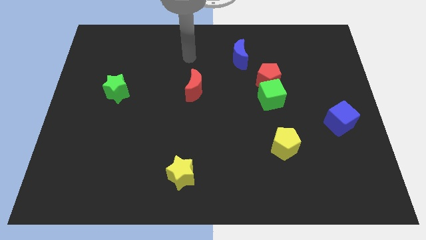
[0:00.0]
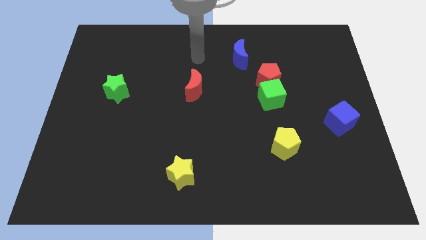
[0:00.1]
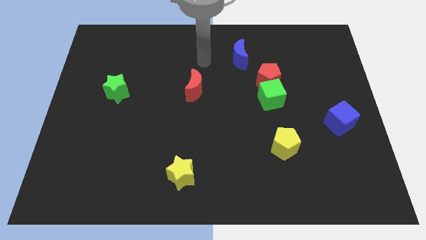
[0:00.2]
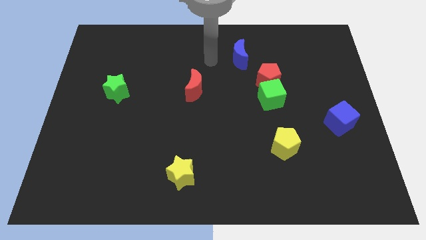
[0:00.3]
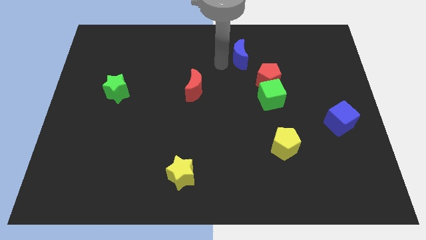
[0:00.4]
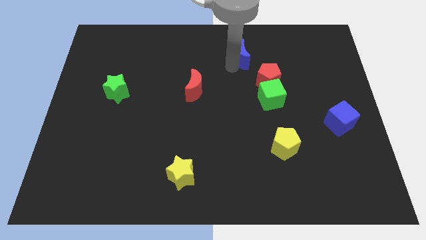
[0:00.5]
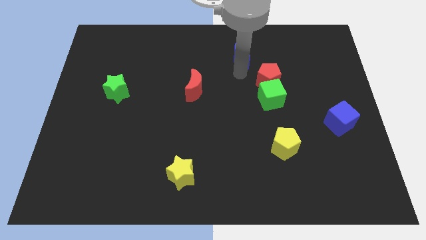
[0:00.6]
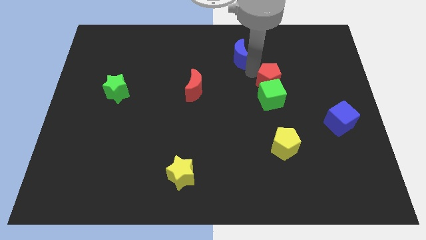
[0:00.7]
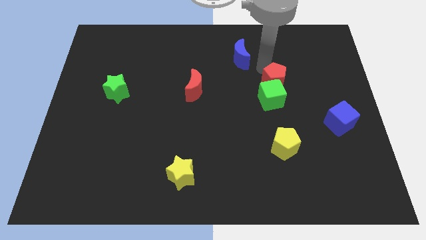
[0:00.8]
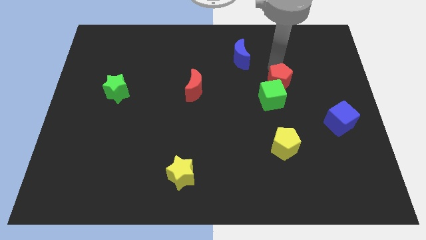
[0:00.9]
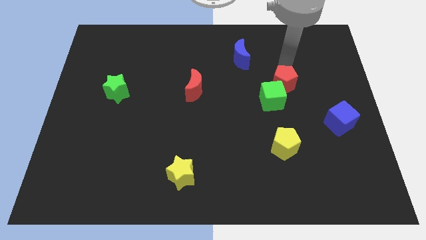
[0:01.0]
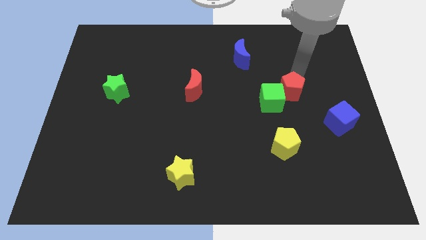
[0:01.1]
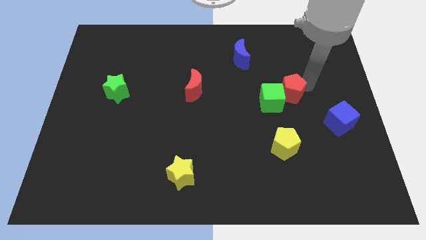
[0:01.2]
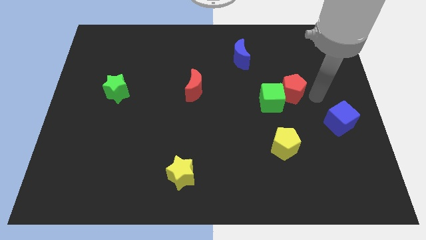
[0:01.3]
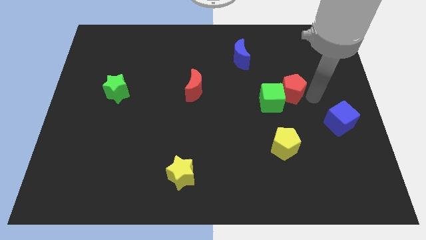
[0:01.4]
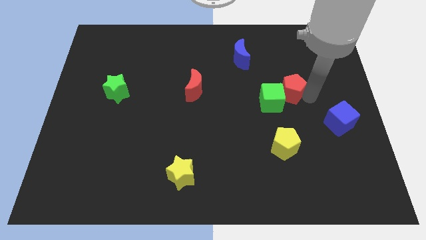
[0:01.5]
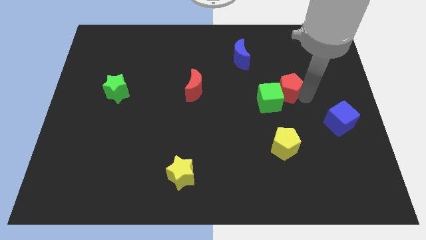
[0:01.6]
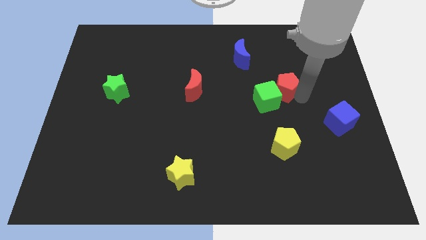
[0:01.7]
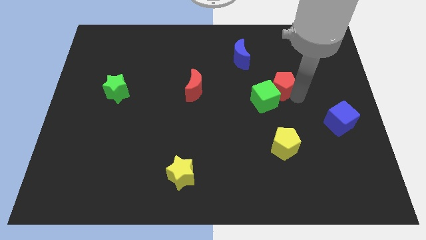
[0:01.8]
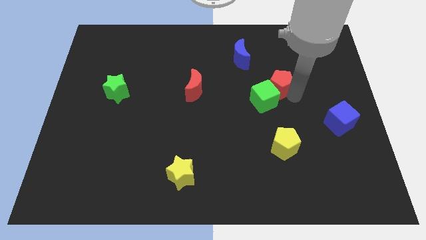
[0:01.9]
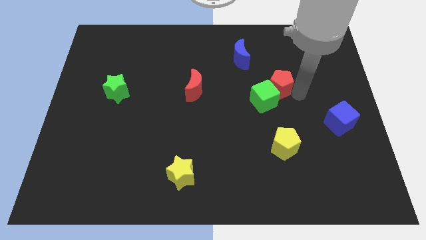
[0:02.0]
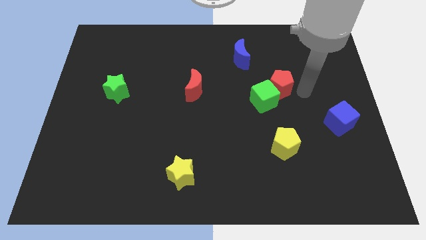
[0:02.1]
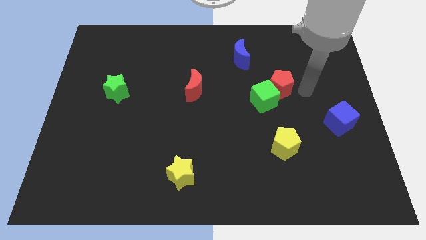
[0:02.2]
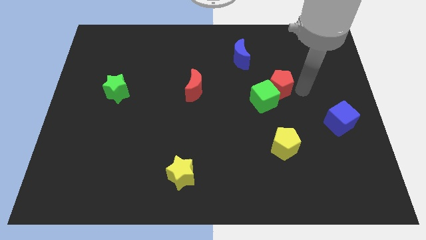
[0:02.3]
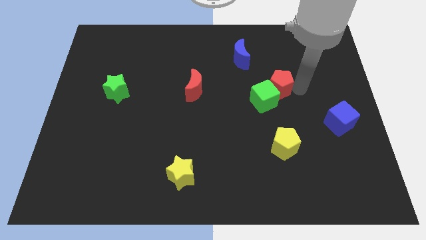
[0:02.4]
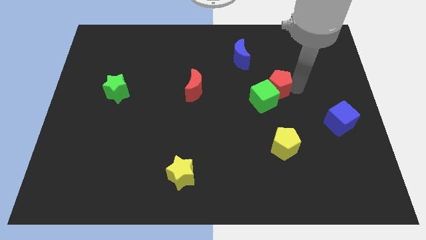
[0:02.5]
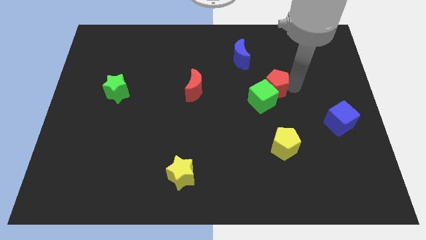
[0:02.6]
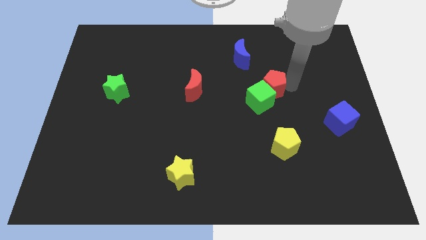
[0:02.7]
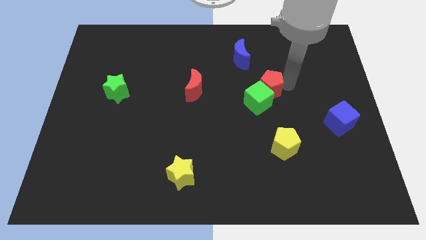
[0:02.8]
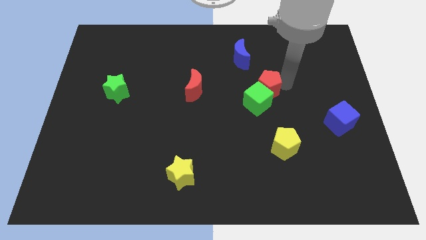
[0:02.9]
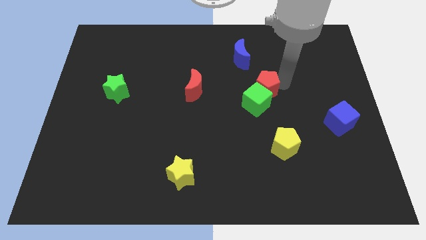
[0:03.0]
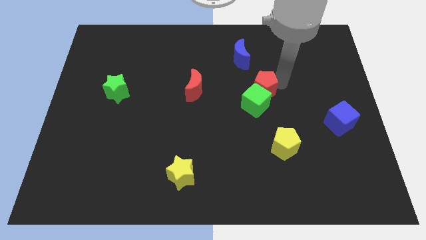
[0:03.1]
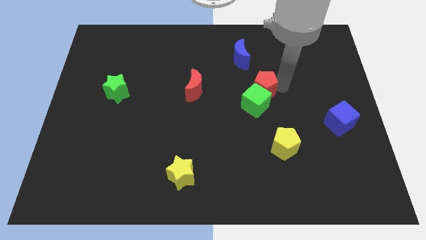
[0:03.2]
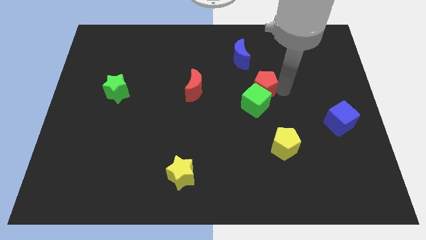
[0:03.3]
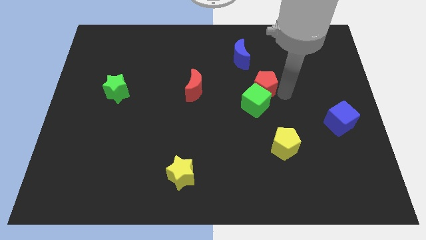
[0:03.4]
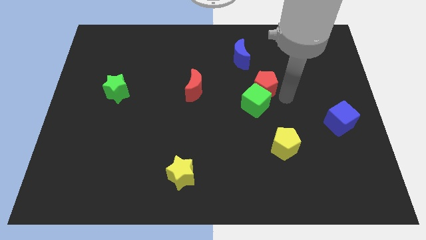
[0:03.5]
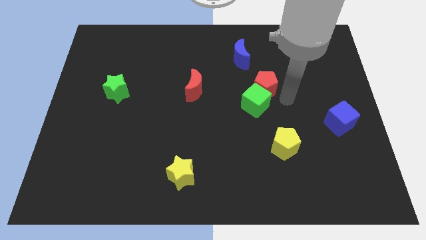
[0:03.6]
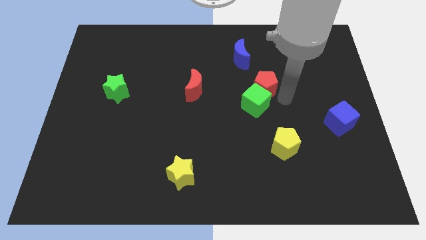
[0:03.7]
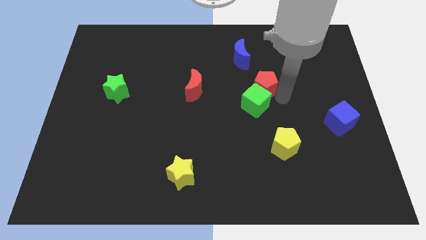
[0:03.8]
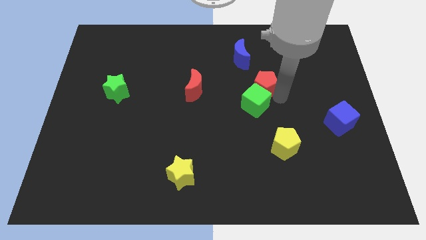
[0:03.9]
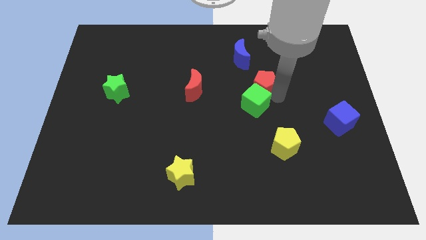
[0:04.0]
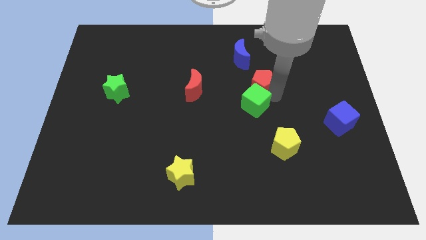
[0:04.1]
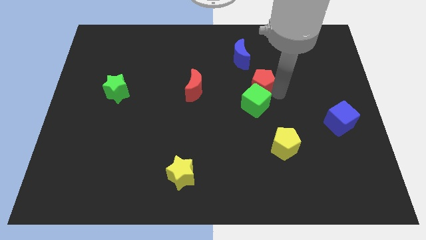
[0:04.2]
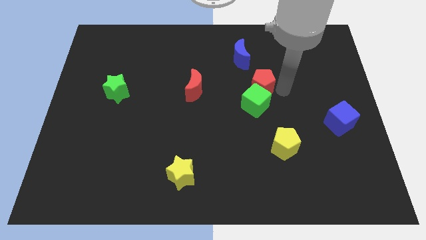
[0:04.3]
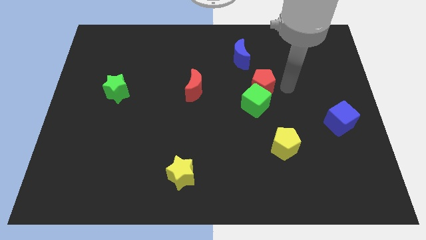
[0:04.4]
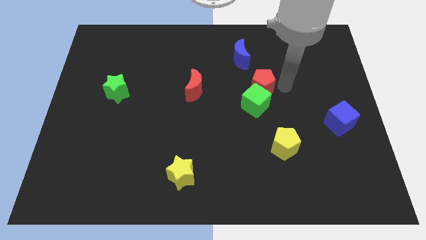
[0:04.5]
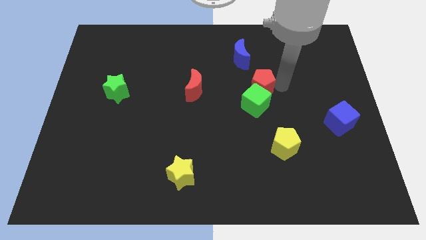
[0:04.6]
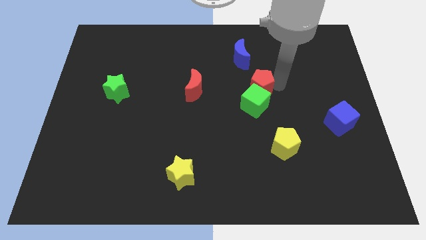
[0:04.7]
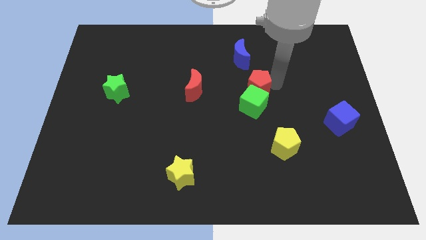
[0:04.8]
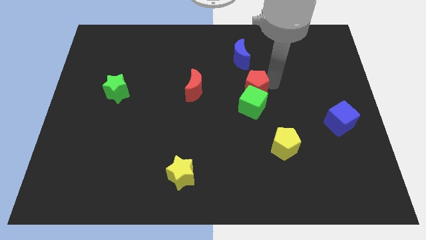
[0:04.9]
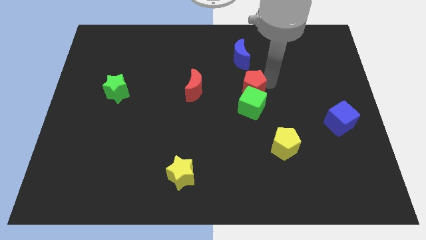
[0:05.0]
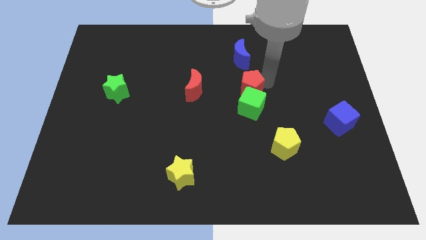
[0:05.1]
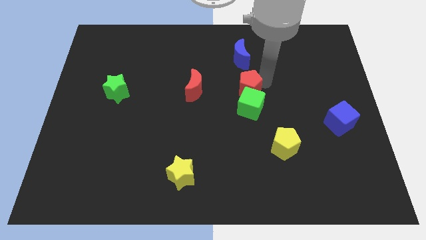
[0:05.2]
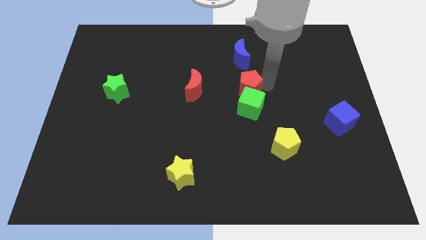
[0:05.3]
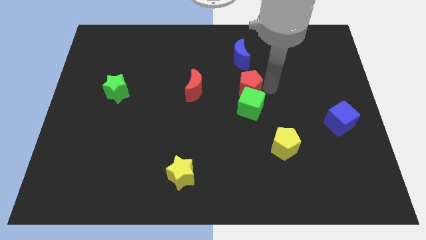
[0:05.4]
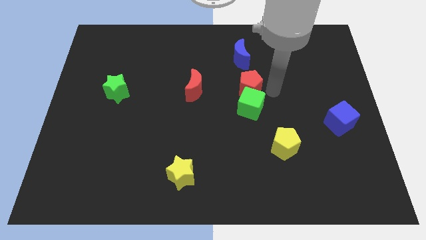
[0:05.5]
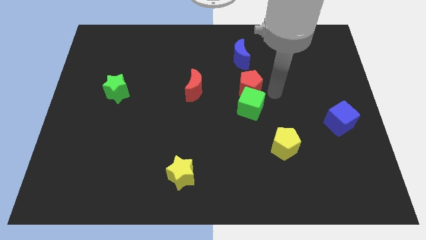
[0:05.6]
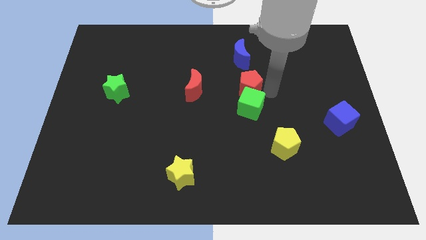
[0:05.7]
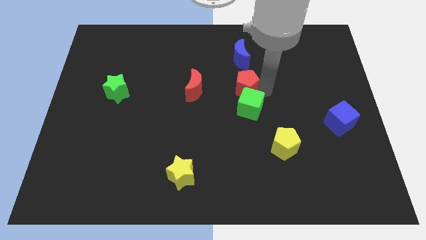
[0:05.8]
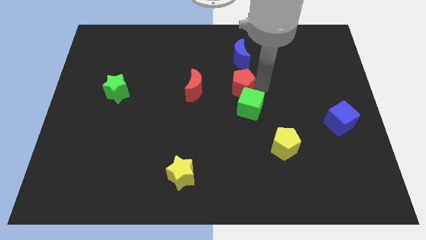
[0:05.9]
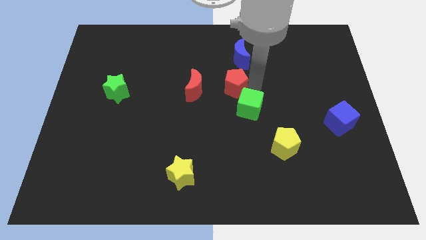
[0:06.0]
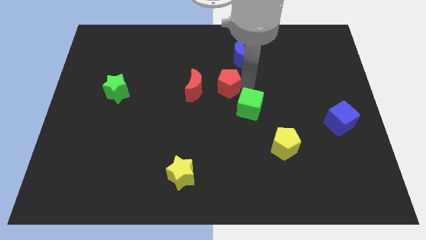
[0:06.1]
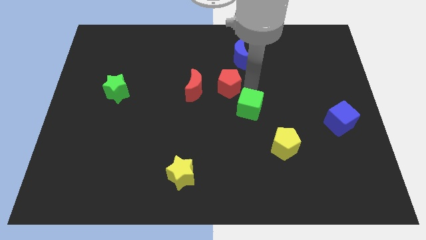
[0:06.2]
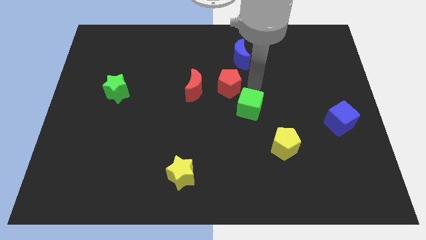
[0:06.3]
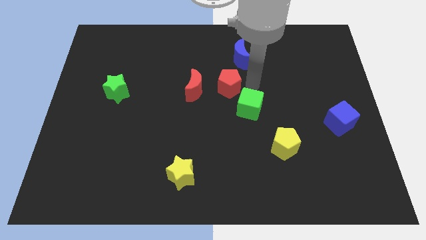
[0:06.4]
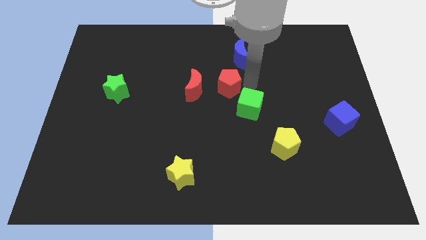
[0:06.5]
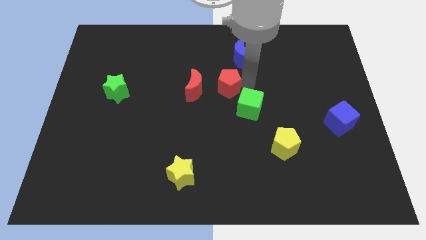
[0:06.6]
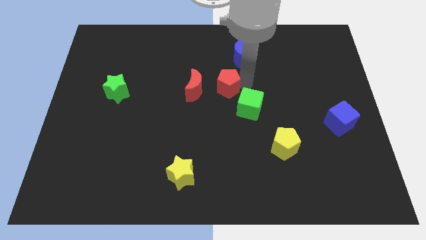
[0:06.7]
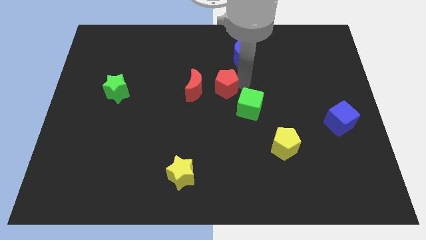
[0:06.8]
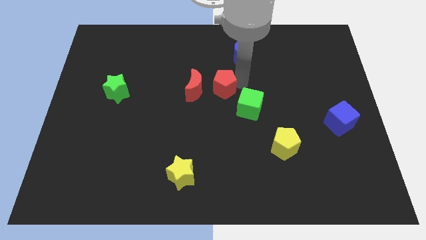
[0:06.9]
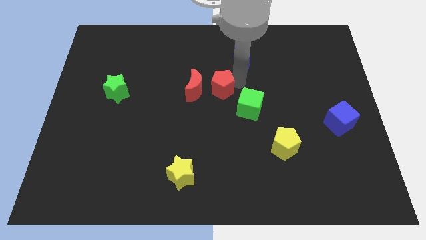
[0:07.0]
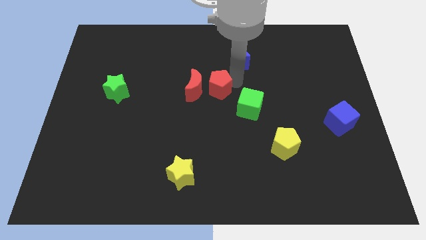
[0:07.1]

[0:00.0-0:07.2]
slide the red pentagon to the red moon
